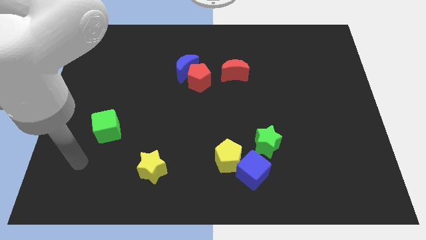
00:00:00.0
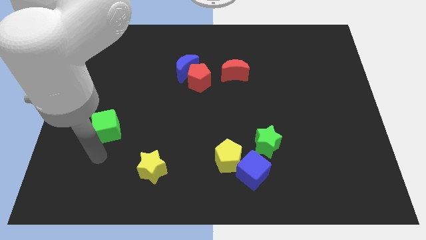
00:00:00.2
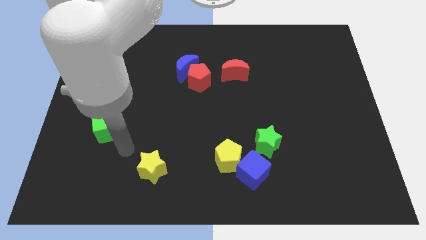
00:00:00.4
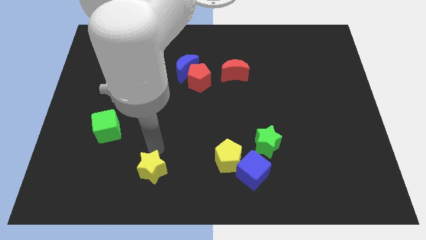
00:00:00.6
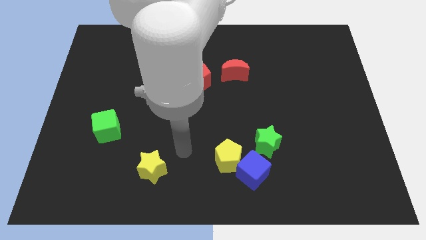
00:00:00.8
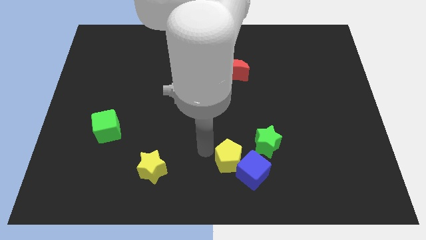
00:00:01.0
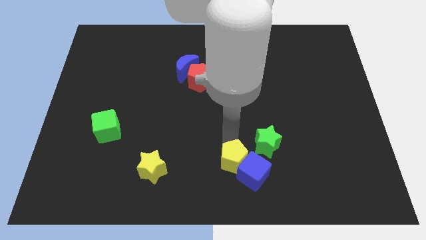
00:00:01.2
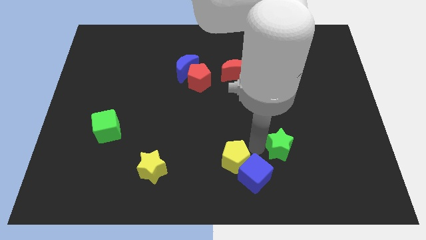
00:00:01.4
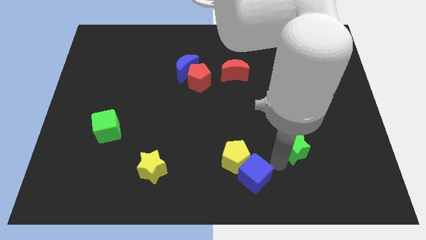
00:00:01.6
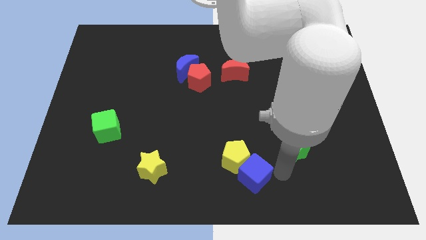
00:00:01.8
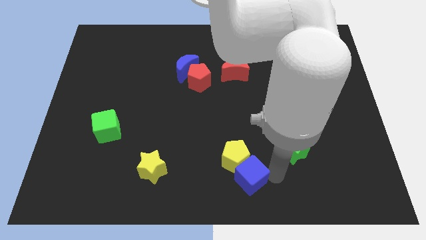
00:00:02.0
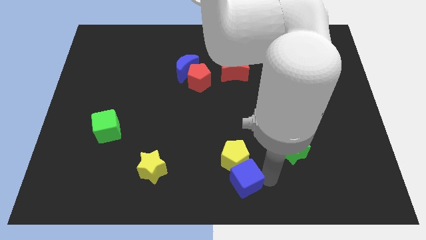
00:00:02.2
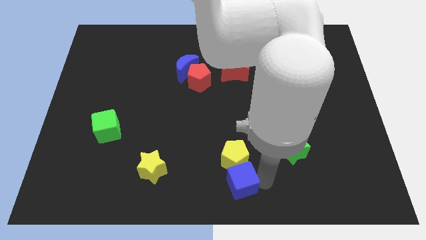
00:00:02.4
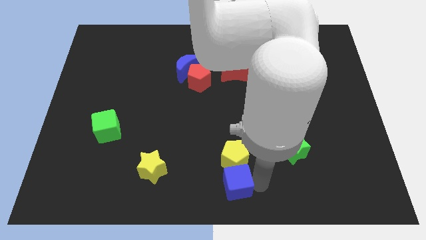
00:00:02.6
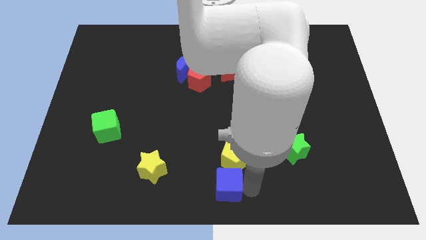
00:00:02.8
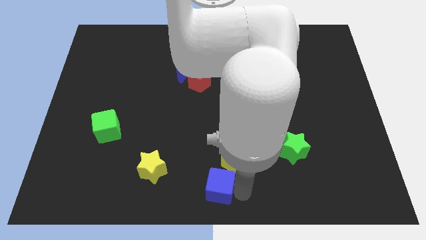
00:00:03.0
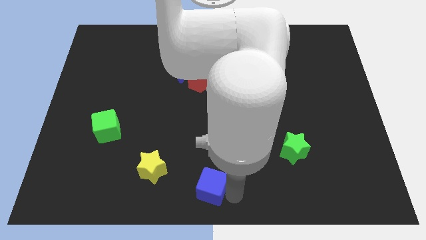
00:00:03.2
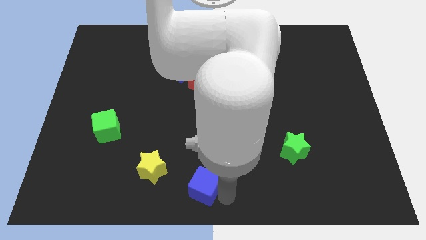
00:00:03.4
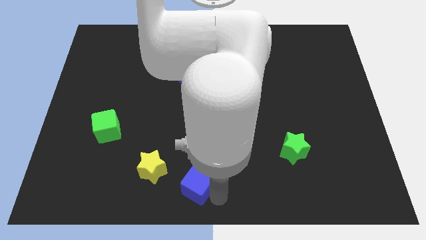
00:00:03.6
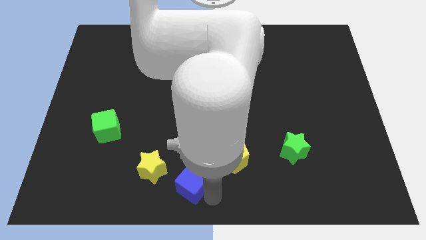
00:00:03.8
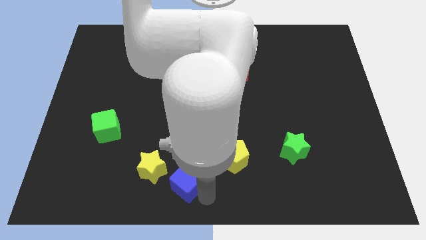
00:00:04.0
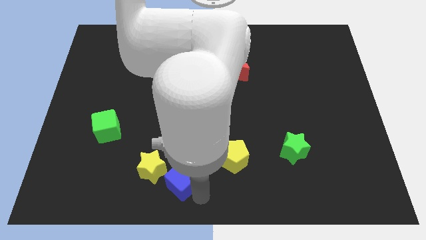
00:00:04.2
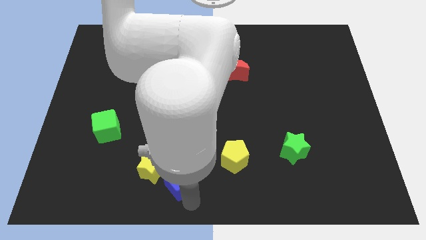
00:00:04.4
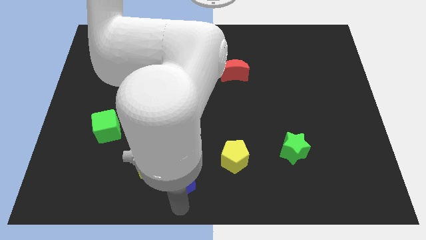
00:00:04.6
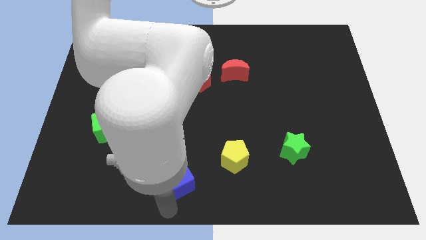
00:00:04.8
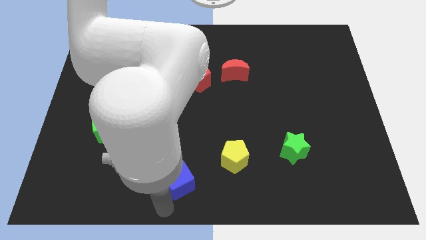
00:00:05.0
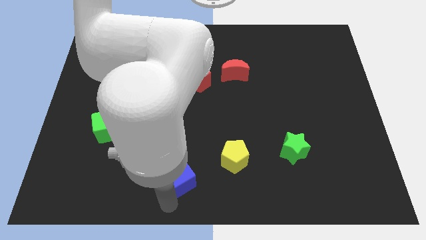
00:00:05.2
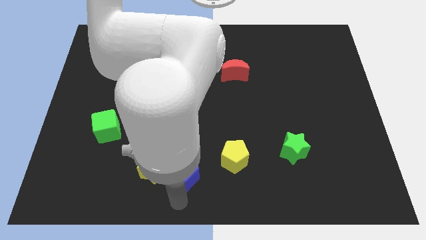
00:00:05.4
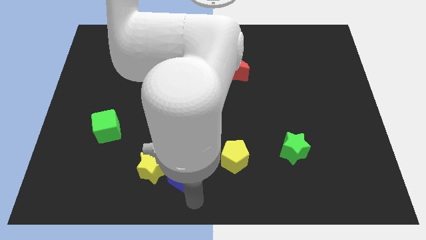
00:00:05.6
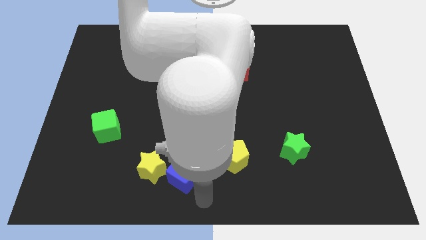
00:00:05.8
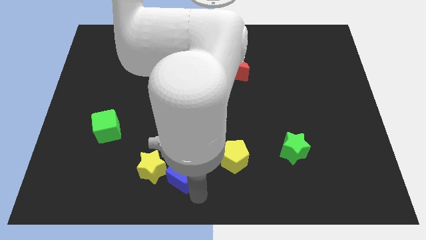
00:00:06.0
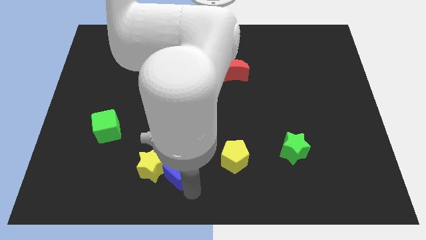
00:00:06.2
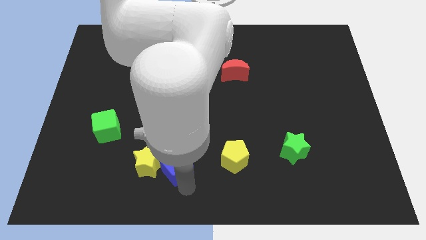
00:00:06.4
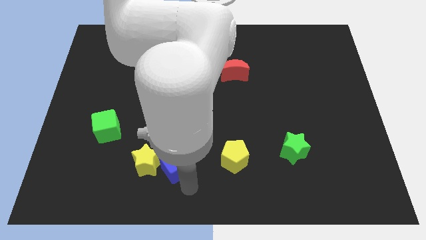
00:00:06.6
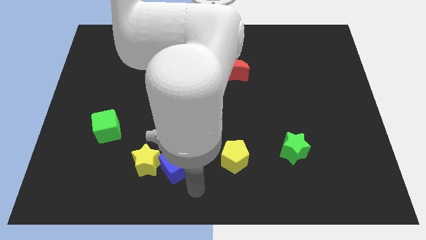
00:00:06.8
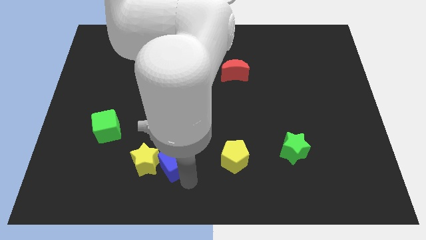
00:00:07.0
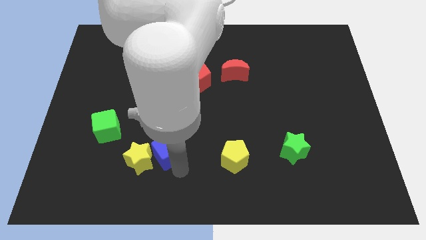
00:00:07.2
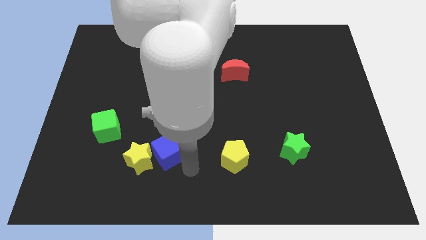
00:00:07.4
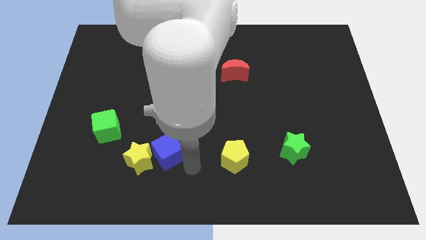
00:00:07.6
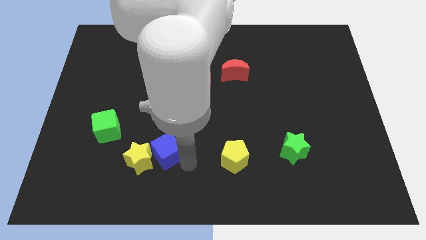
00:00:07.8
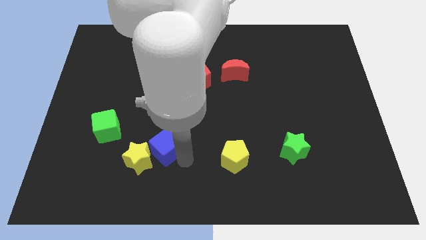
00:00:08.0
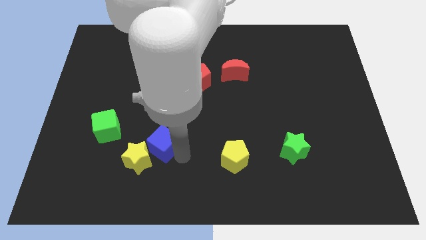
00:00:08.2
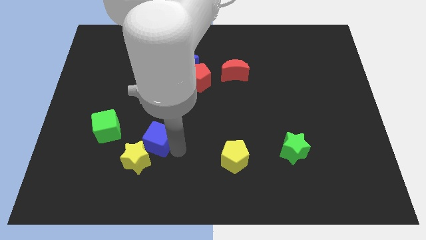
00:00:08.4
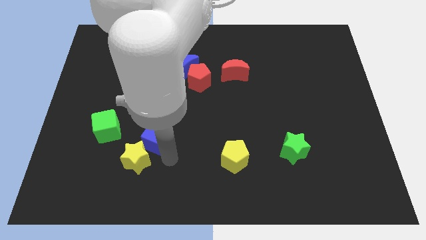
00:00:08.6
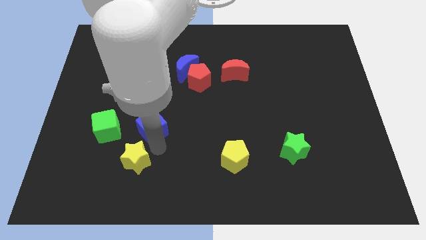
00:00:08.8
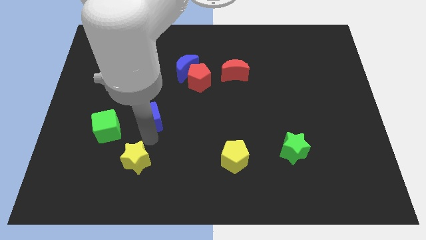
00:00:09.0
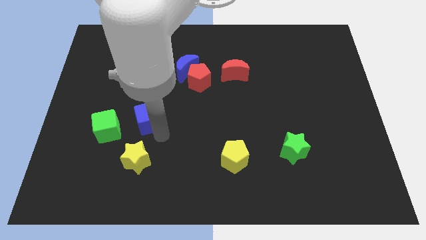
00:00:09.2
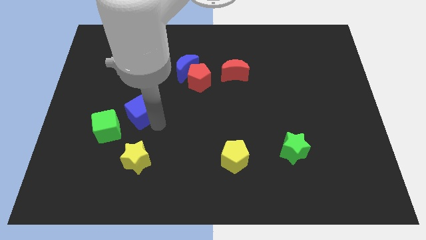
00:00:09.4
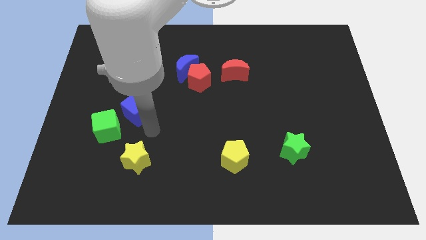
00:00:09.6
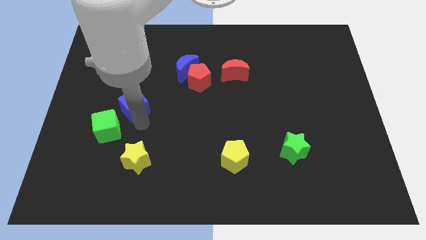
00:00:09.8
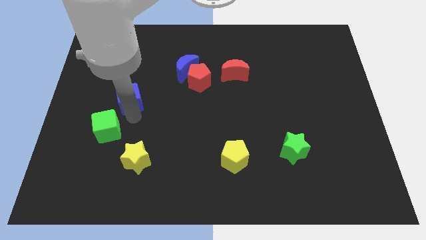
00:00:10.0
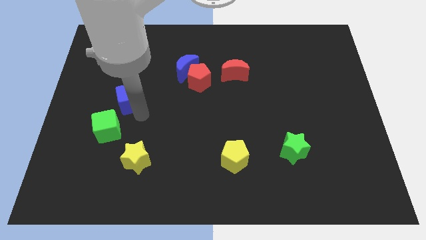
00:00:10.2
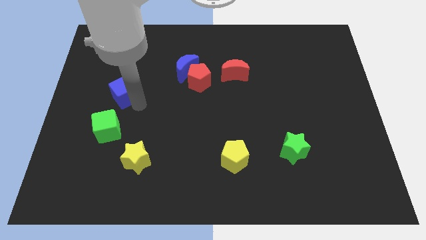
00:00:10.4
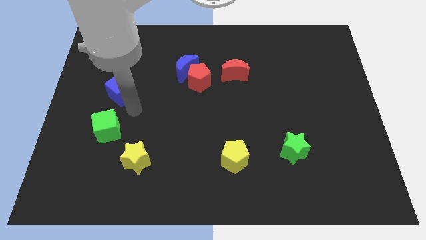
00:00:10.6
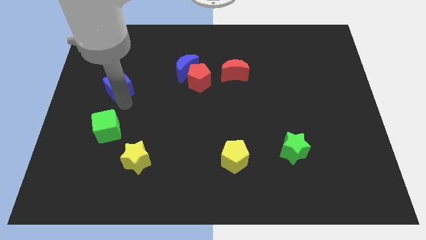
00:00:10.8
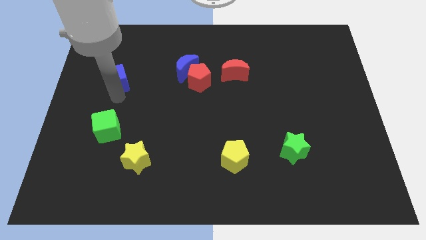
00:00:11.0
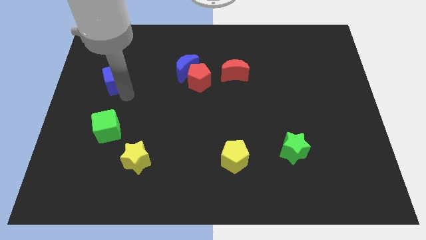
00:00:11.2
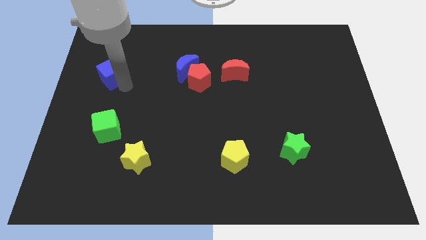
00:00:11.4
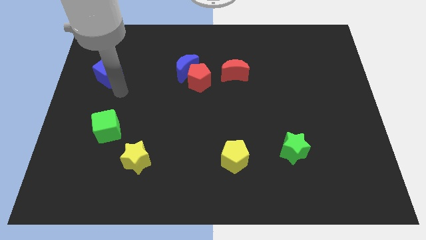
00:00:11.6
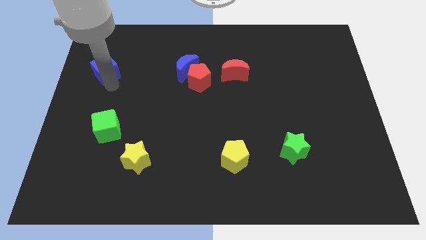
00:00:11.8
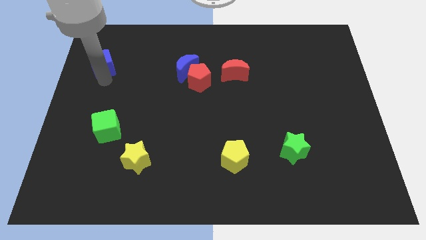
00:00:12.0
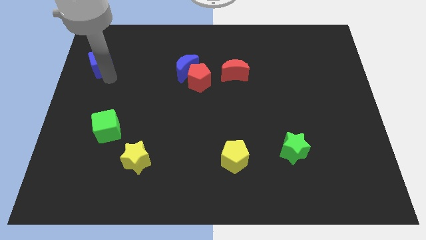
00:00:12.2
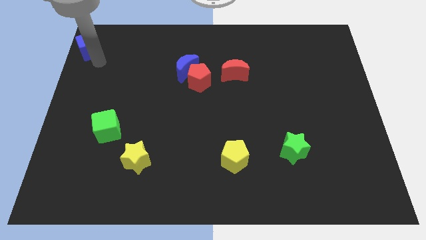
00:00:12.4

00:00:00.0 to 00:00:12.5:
put the blue cube to the upper left corner
